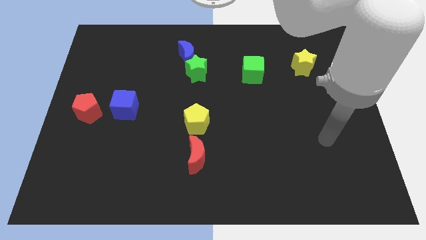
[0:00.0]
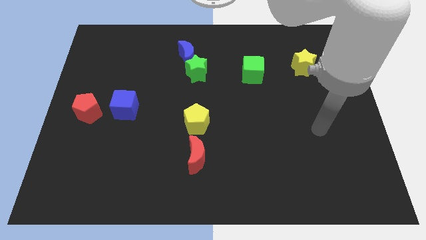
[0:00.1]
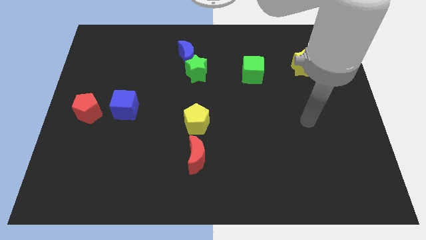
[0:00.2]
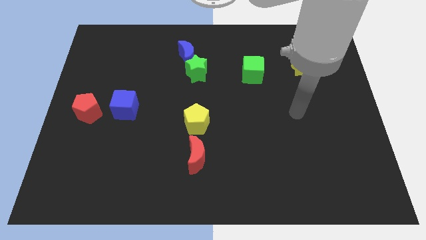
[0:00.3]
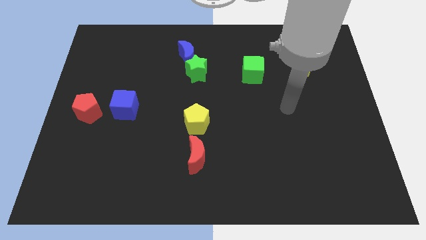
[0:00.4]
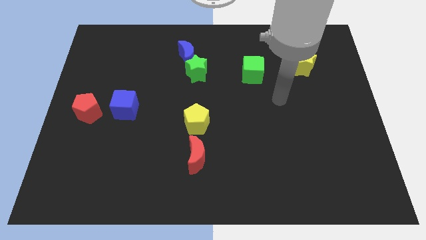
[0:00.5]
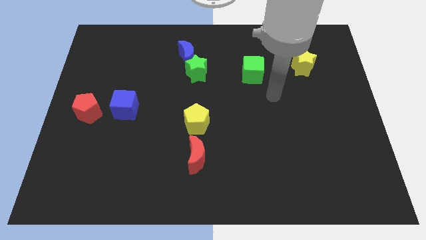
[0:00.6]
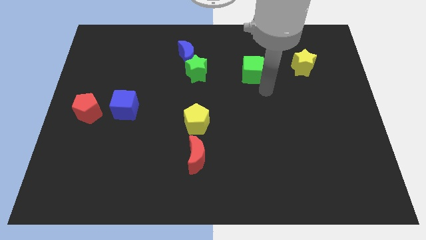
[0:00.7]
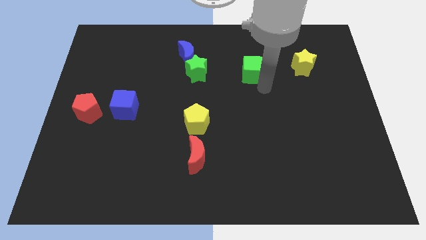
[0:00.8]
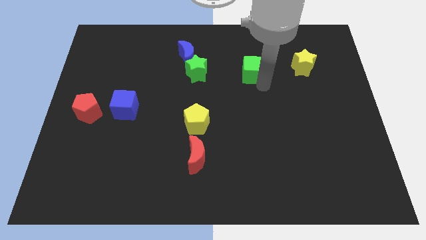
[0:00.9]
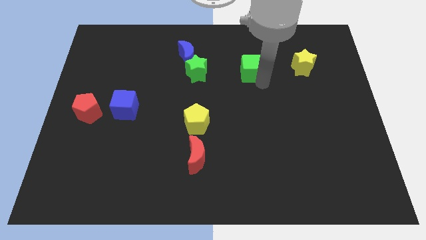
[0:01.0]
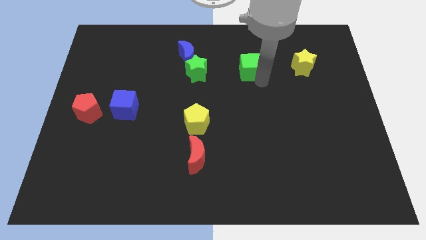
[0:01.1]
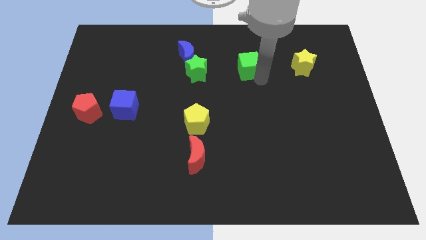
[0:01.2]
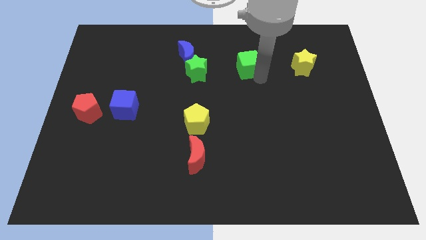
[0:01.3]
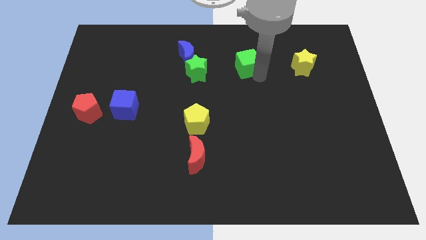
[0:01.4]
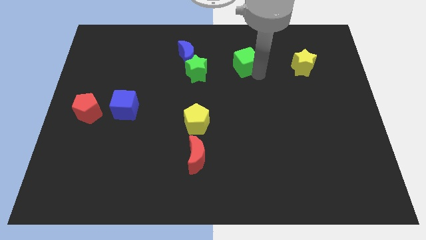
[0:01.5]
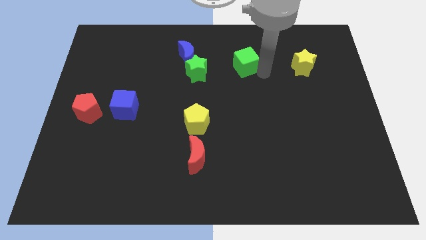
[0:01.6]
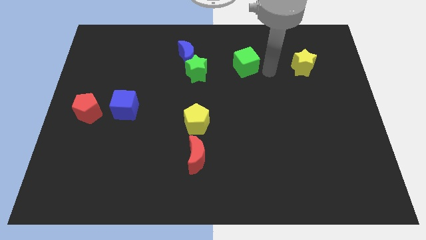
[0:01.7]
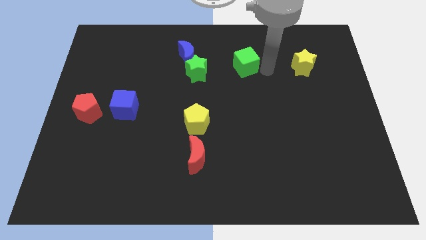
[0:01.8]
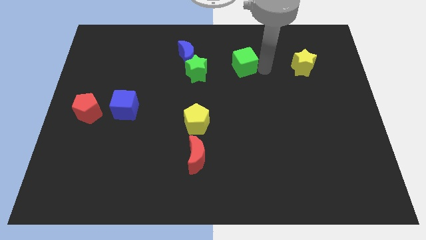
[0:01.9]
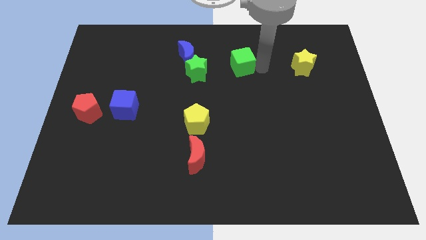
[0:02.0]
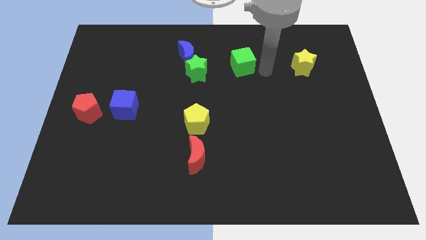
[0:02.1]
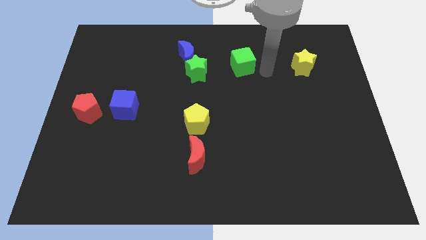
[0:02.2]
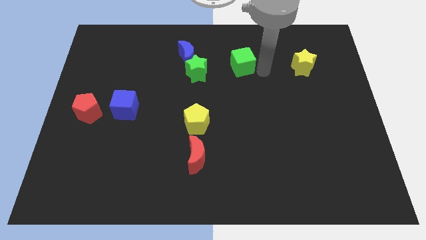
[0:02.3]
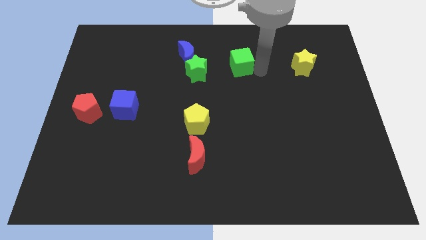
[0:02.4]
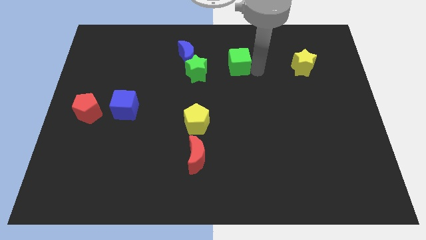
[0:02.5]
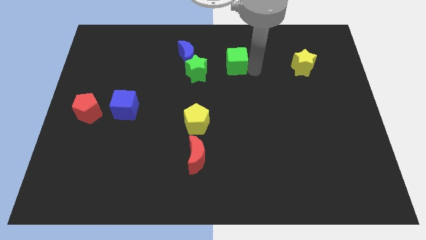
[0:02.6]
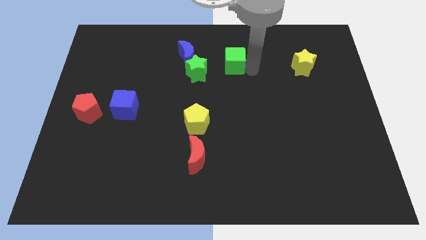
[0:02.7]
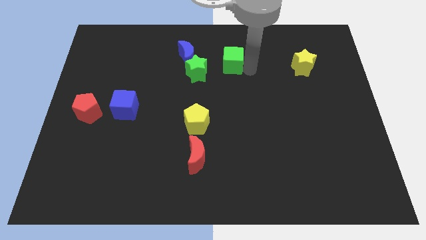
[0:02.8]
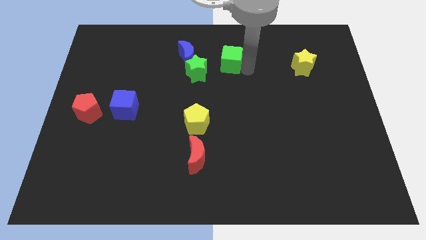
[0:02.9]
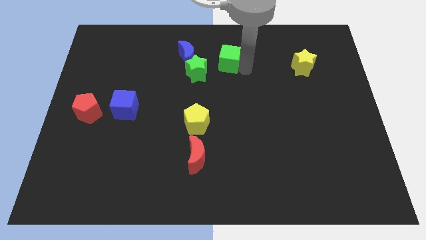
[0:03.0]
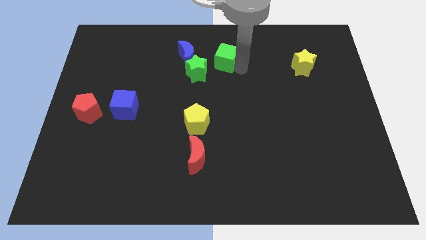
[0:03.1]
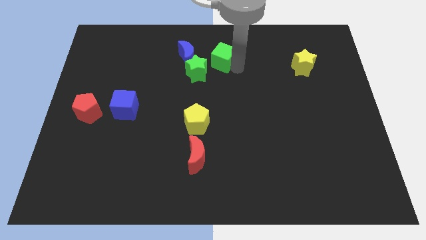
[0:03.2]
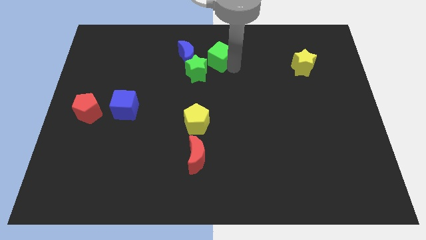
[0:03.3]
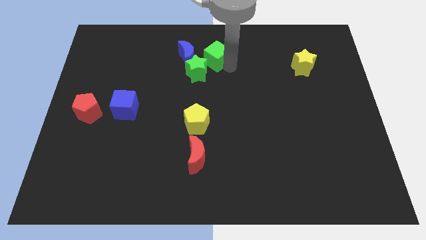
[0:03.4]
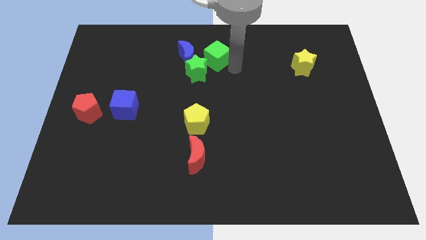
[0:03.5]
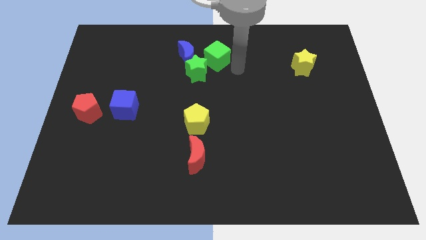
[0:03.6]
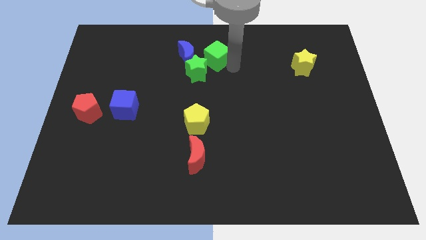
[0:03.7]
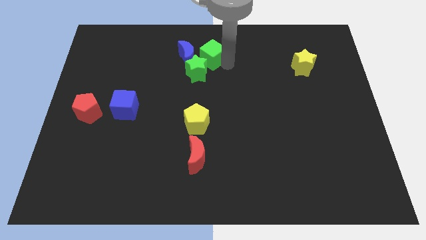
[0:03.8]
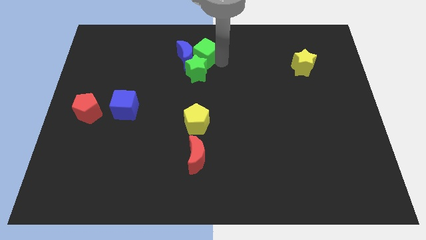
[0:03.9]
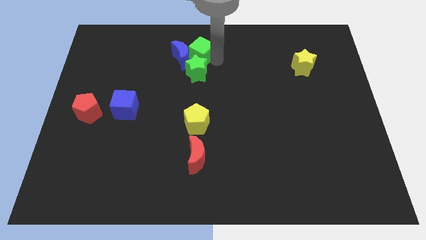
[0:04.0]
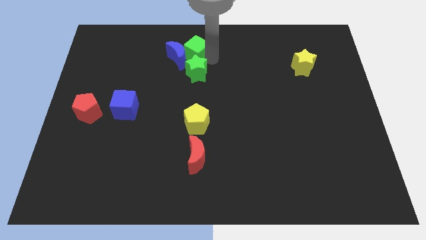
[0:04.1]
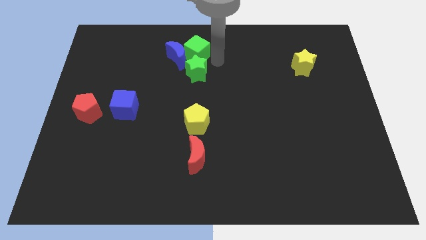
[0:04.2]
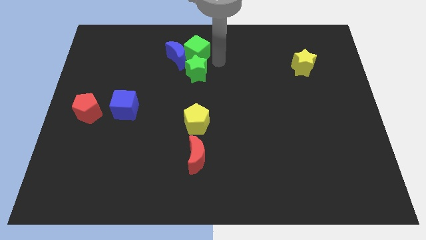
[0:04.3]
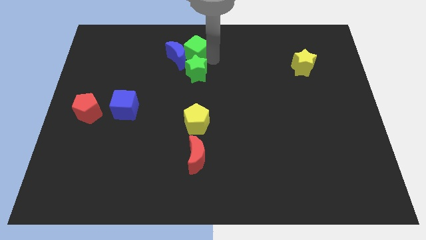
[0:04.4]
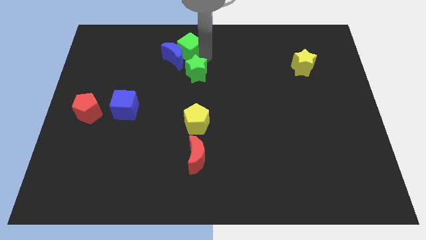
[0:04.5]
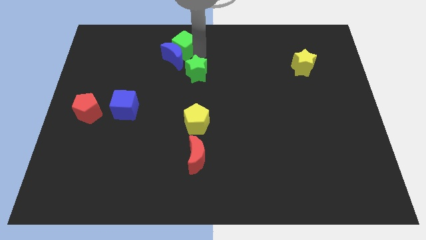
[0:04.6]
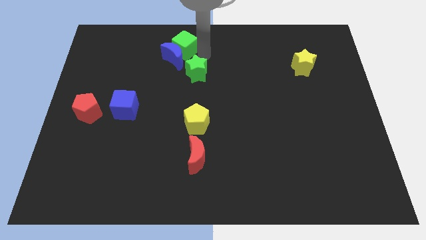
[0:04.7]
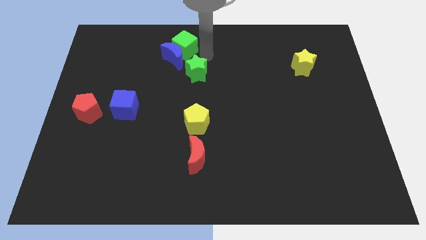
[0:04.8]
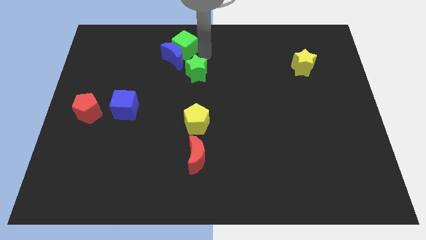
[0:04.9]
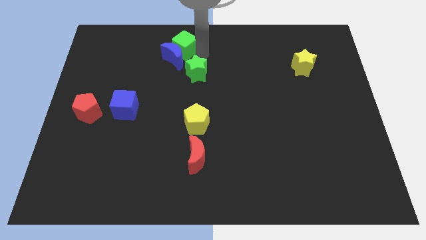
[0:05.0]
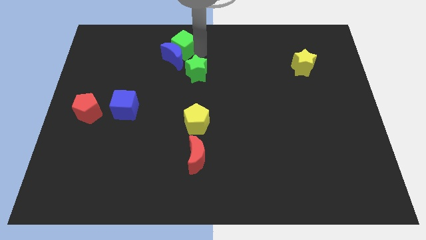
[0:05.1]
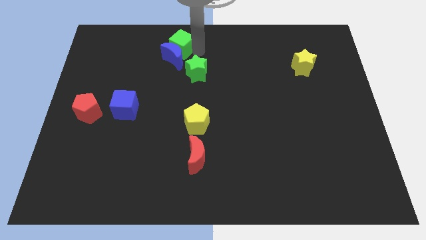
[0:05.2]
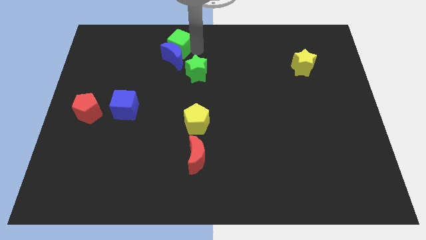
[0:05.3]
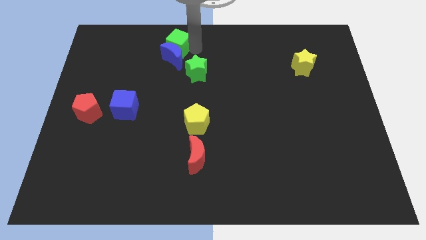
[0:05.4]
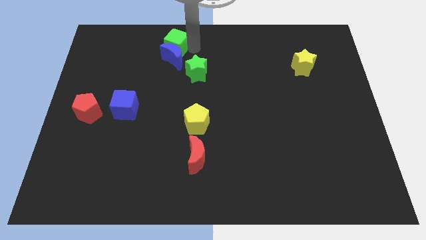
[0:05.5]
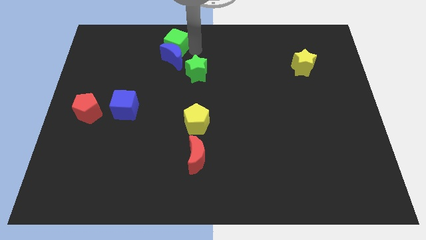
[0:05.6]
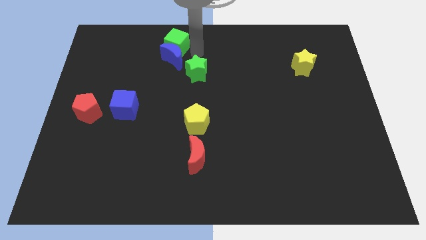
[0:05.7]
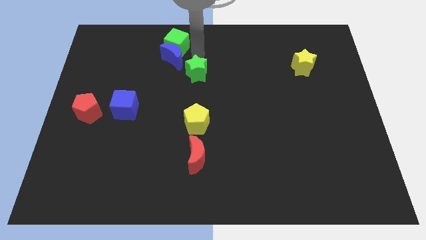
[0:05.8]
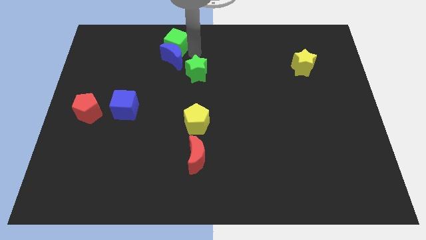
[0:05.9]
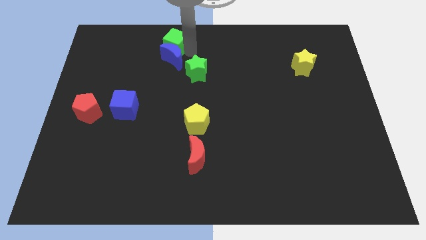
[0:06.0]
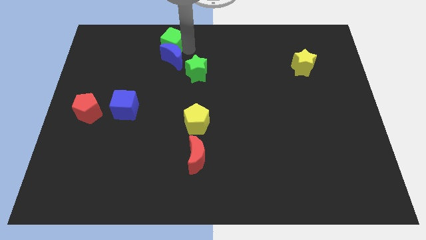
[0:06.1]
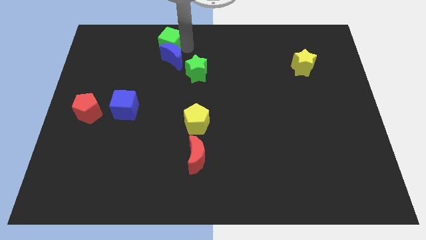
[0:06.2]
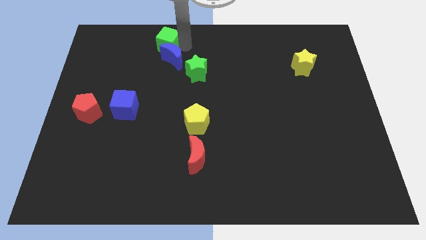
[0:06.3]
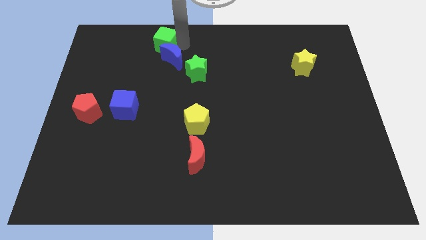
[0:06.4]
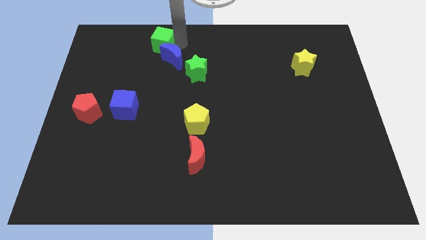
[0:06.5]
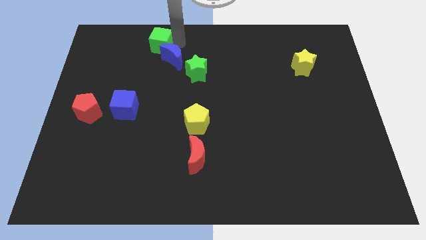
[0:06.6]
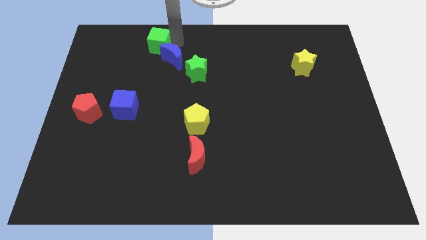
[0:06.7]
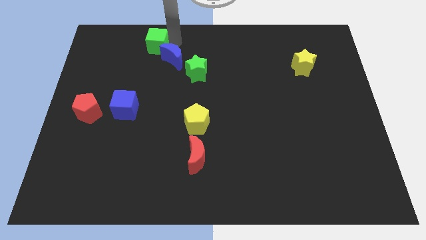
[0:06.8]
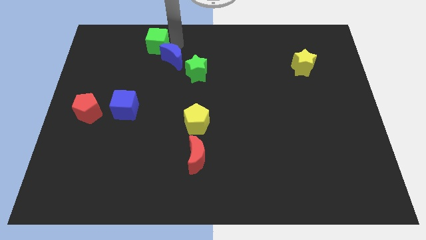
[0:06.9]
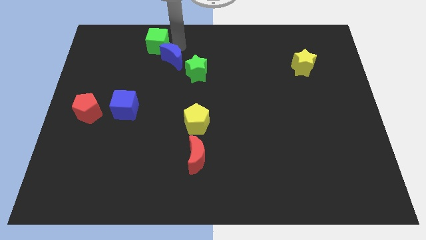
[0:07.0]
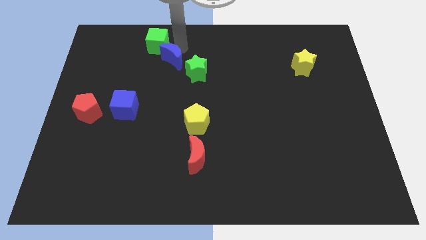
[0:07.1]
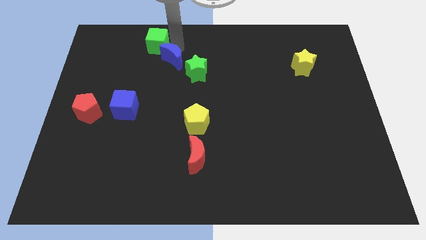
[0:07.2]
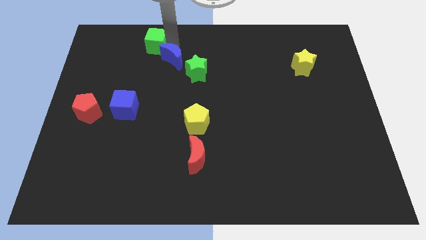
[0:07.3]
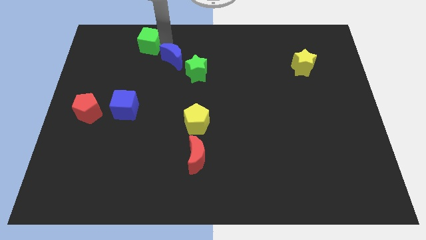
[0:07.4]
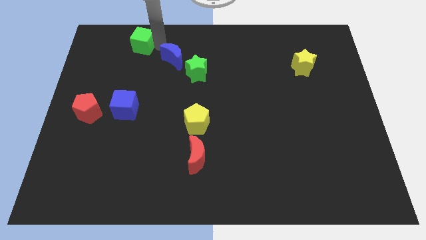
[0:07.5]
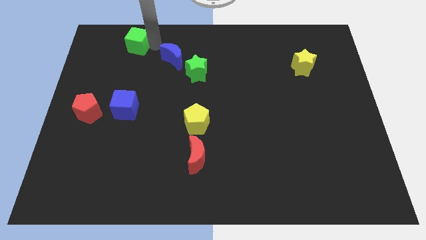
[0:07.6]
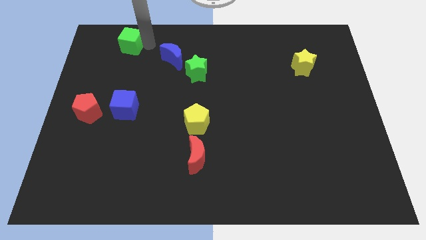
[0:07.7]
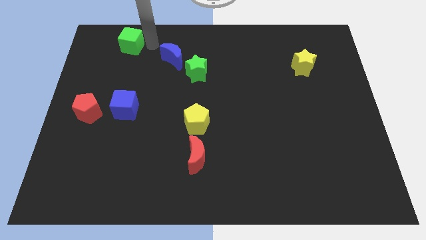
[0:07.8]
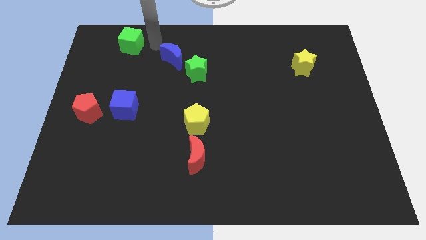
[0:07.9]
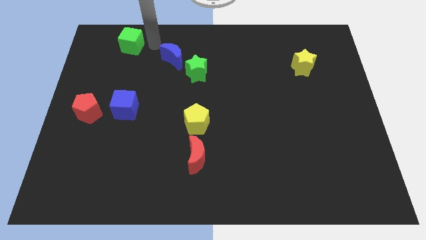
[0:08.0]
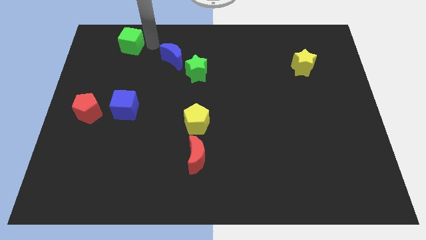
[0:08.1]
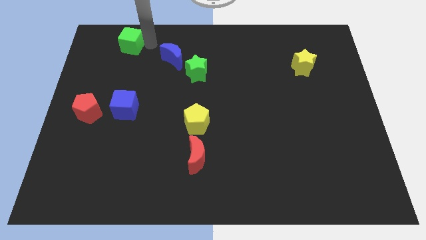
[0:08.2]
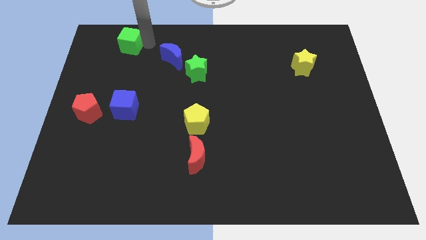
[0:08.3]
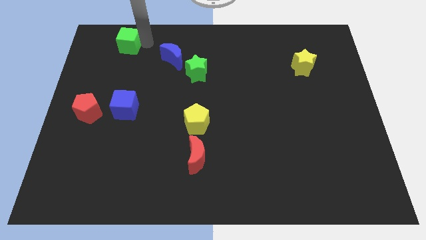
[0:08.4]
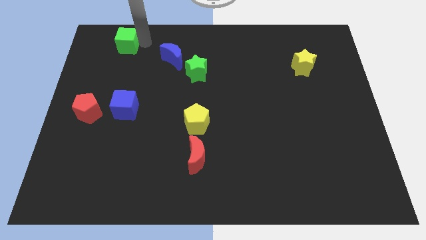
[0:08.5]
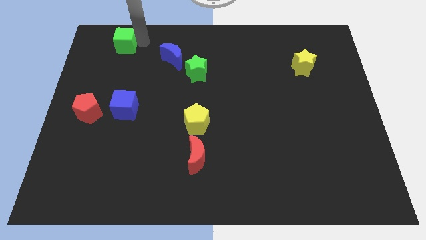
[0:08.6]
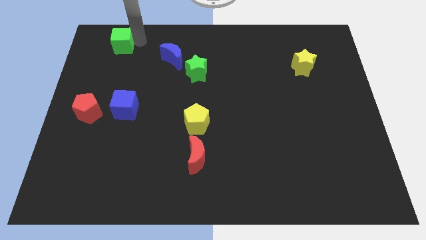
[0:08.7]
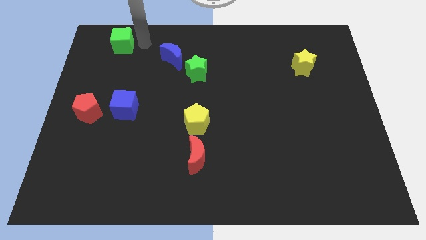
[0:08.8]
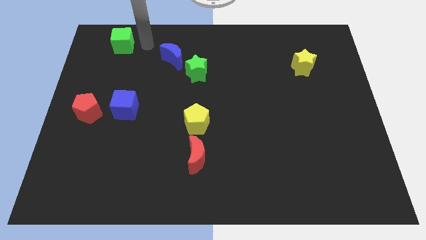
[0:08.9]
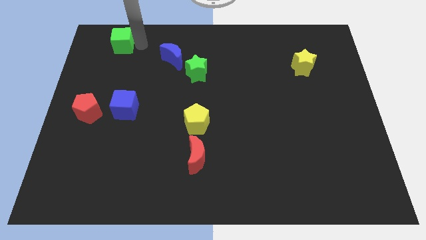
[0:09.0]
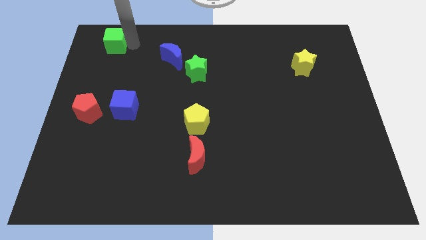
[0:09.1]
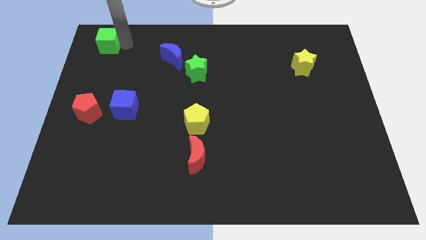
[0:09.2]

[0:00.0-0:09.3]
slide the green cube to the top left corner
